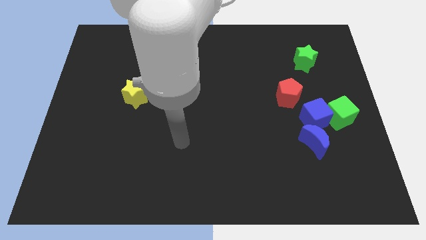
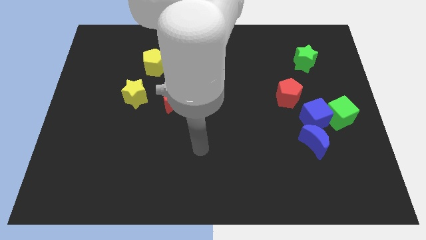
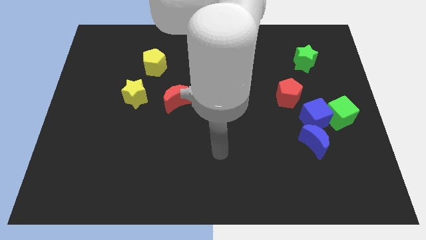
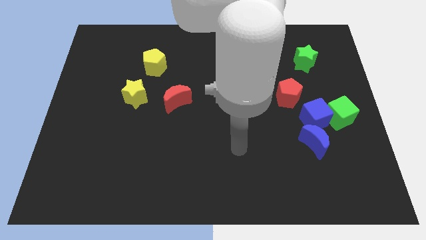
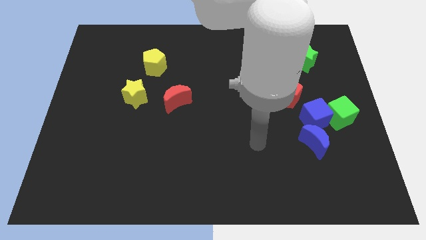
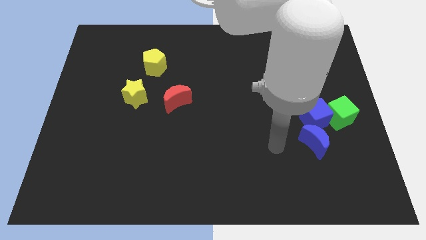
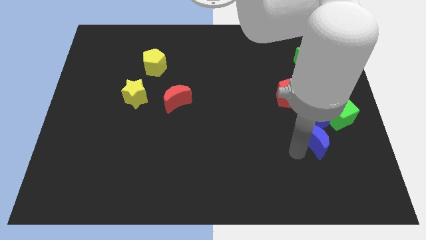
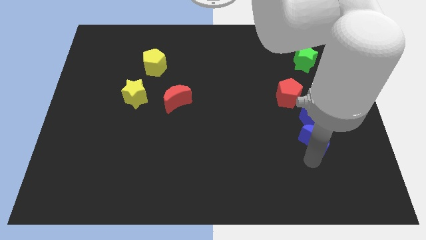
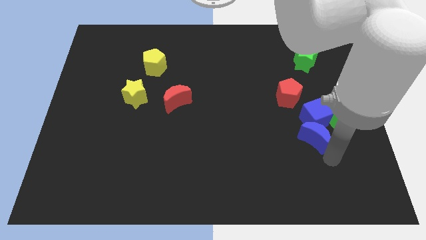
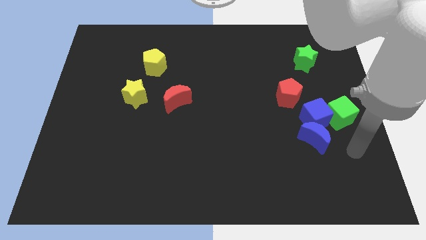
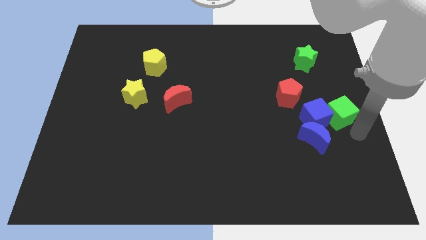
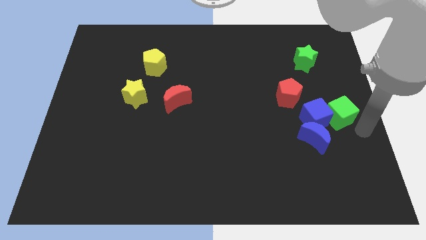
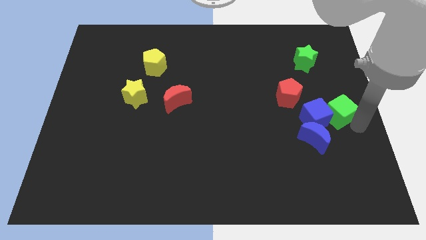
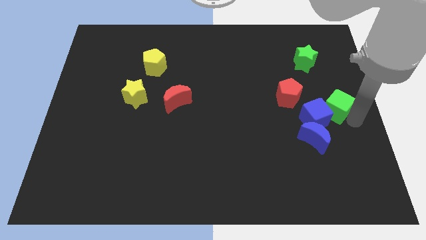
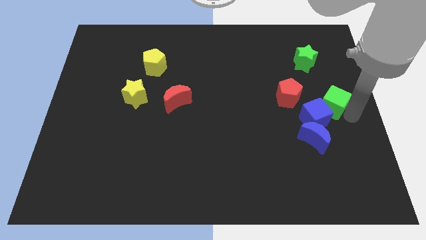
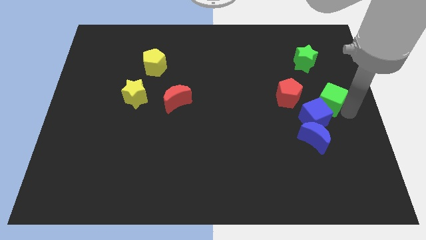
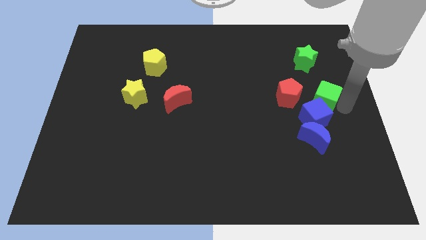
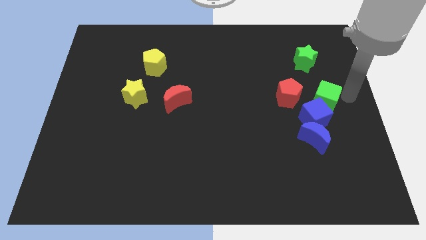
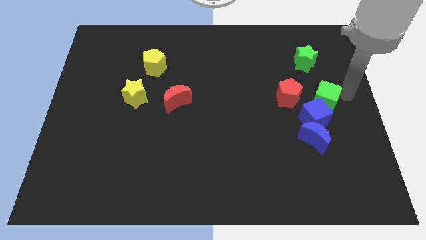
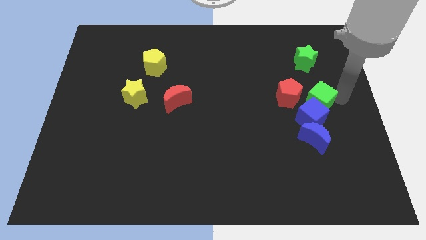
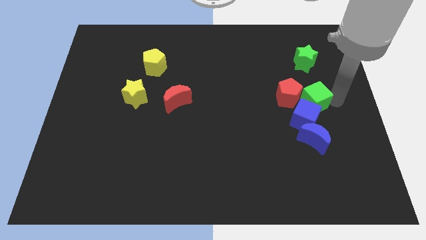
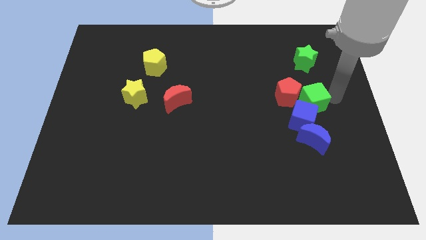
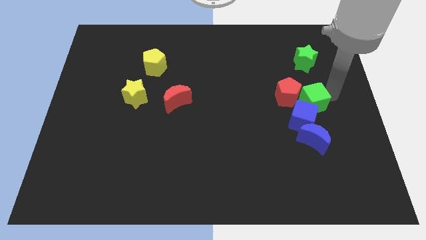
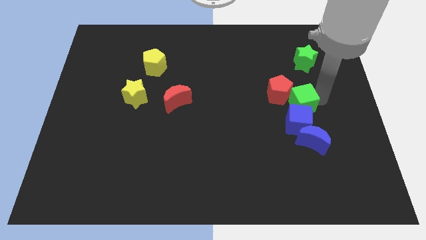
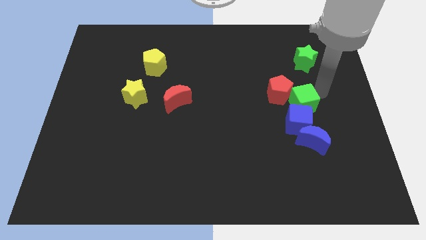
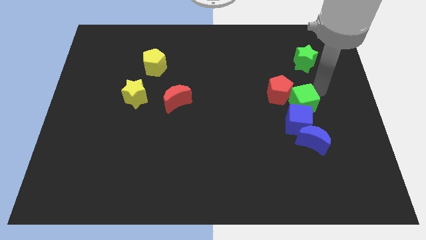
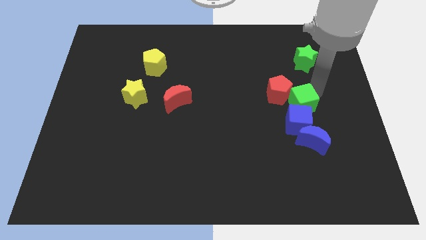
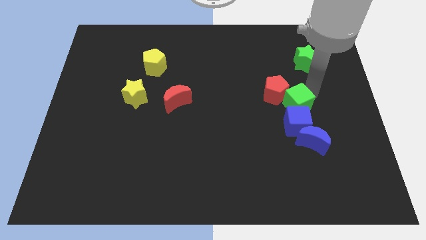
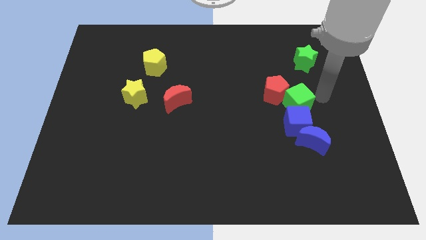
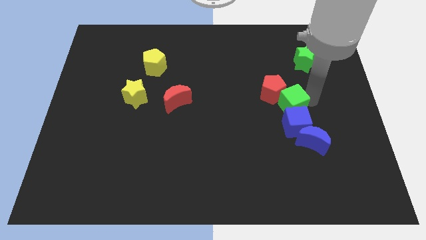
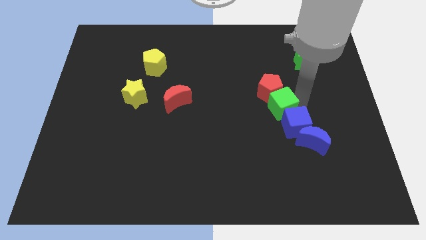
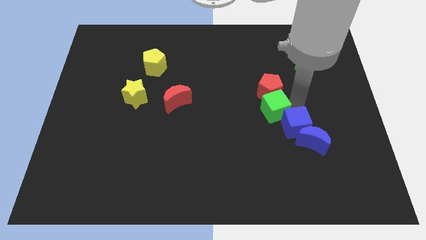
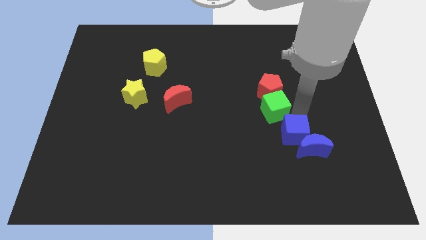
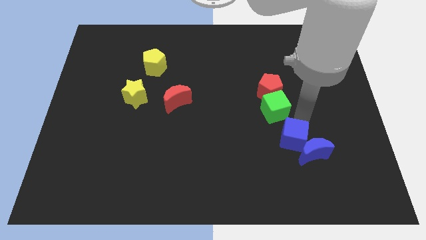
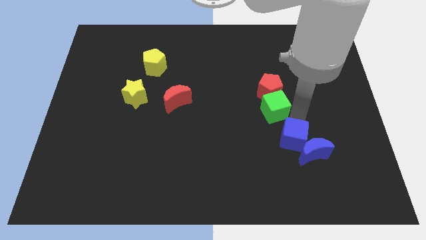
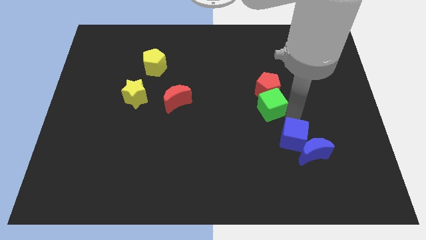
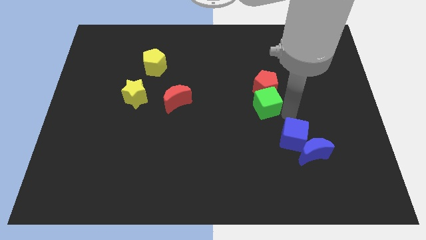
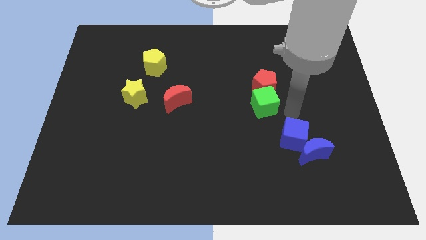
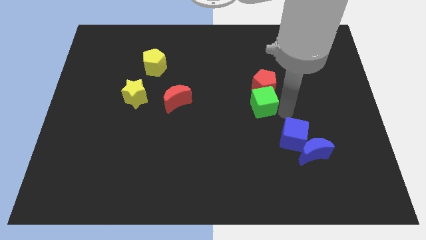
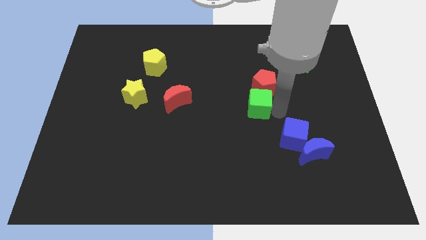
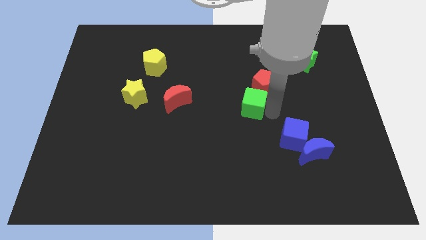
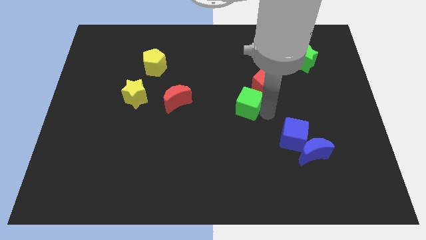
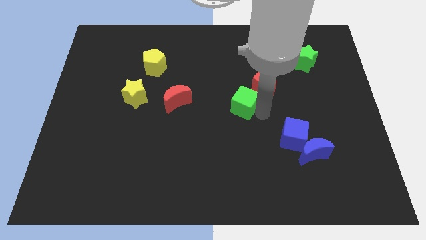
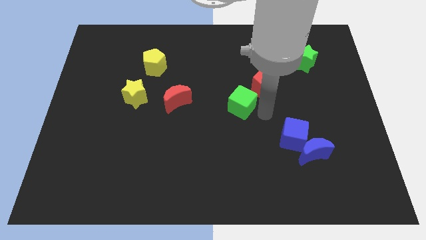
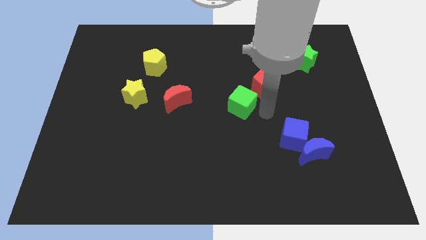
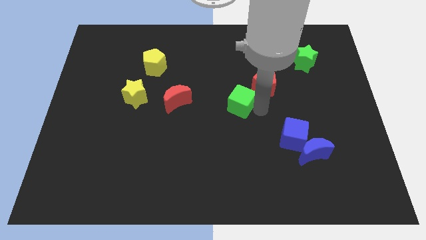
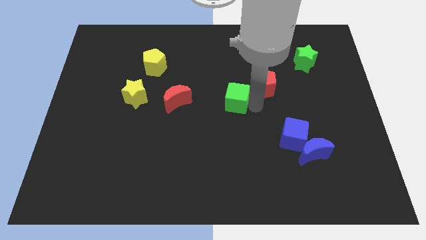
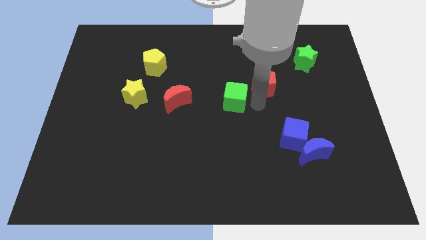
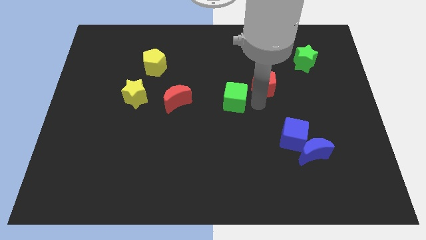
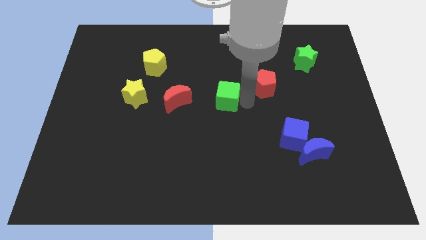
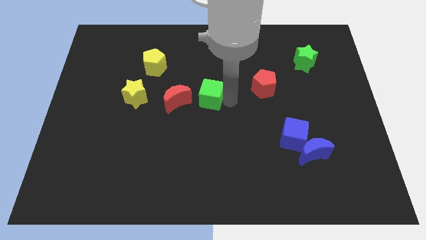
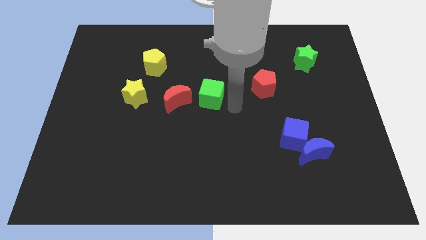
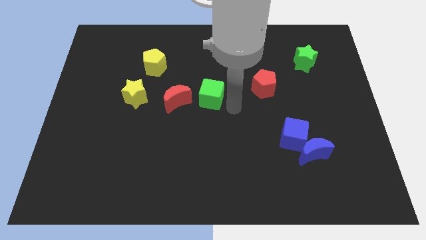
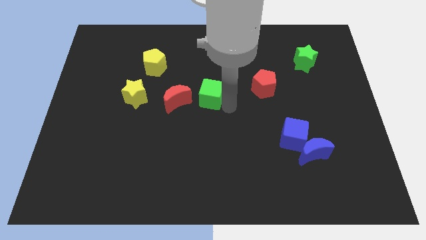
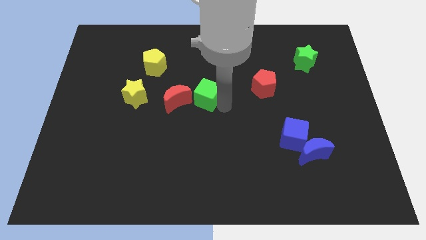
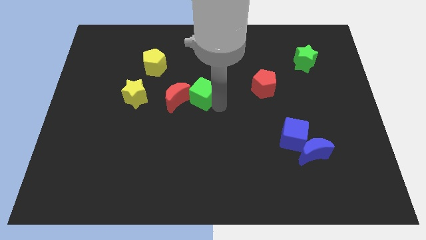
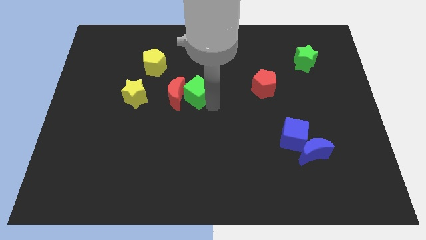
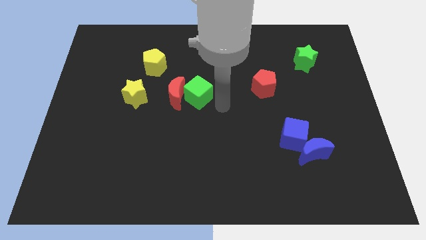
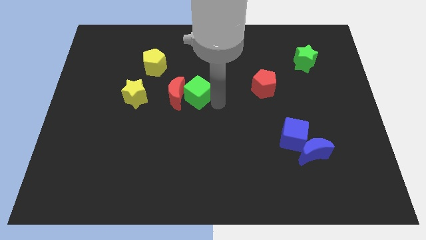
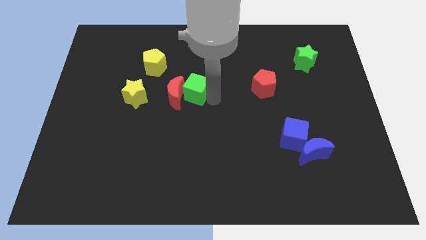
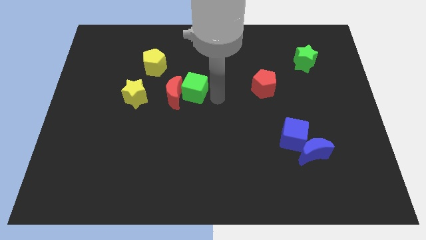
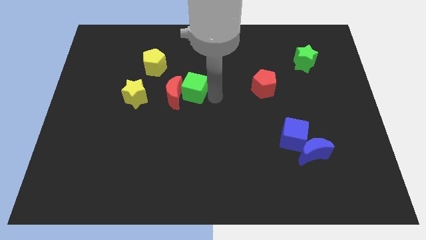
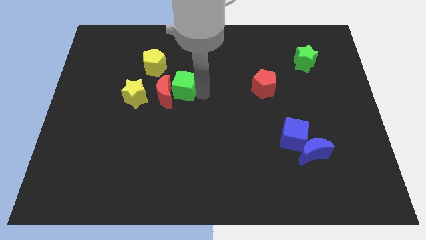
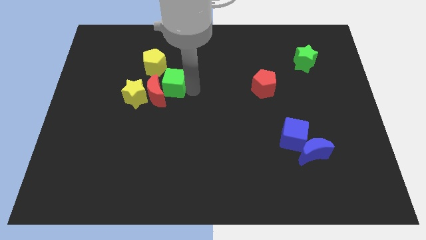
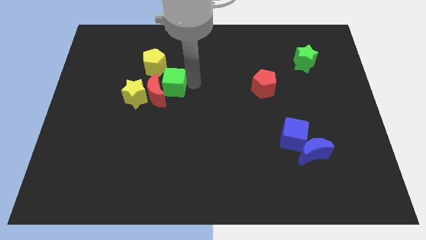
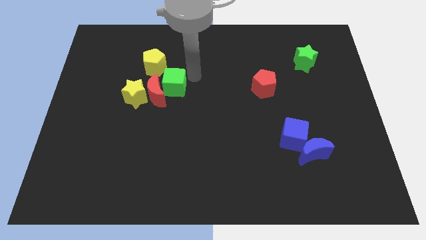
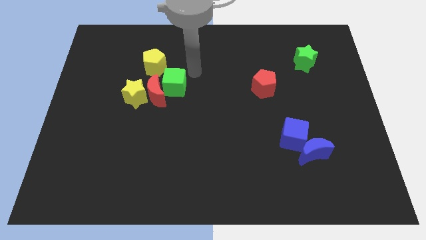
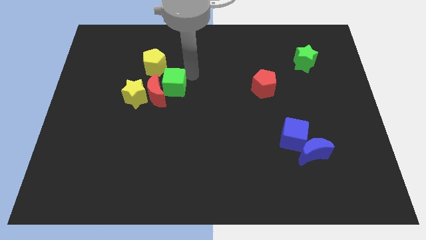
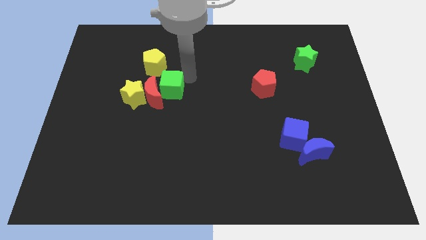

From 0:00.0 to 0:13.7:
move the green cube below the yellow pentagon
